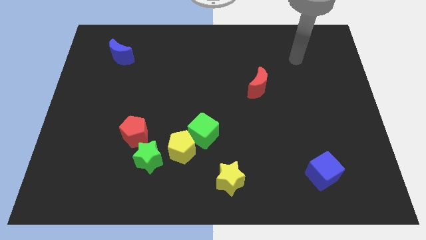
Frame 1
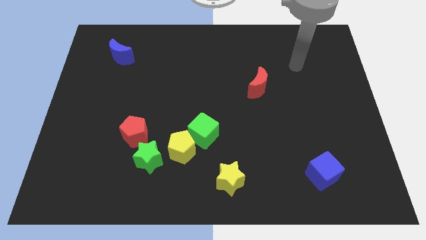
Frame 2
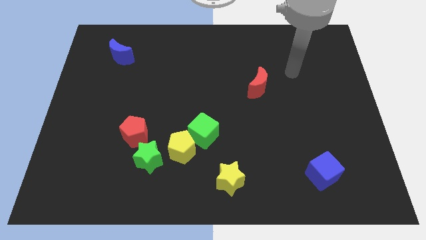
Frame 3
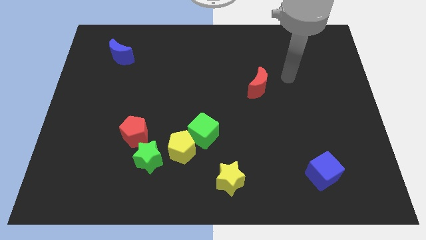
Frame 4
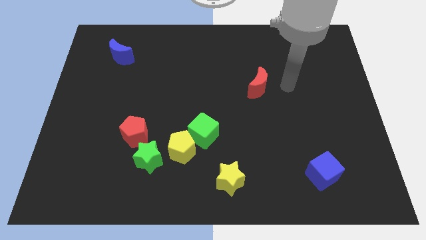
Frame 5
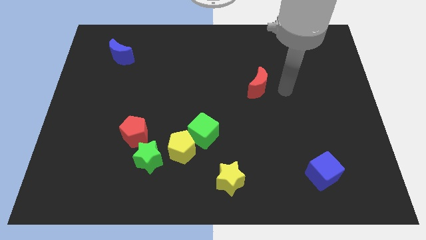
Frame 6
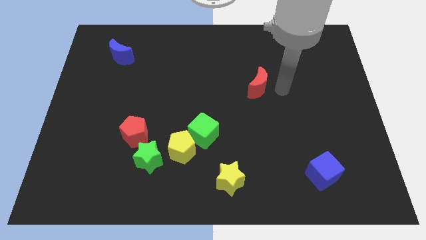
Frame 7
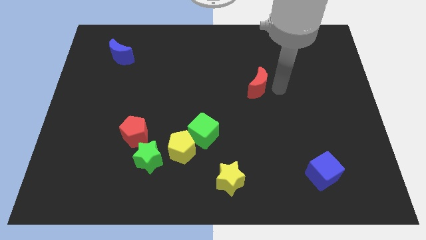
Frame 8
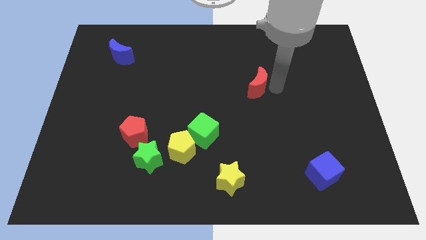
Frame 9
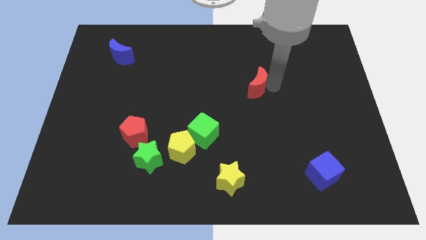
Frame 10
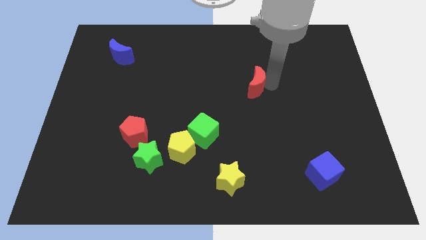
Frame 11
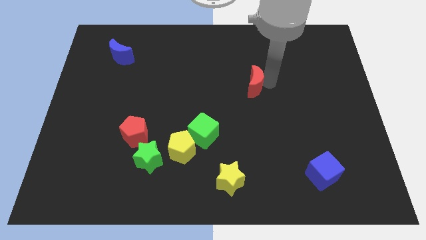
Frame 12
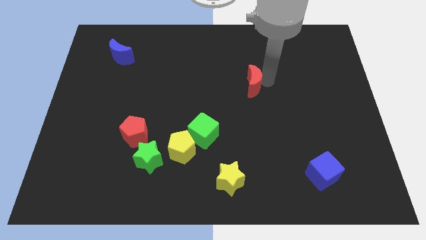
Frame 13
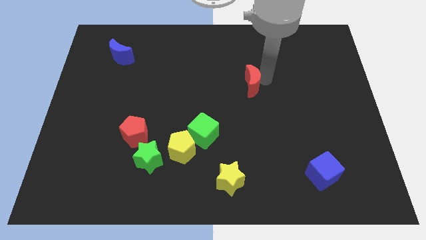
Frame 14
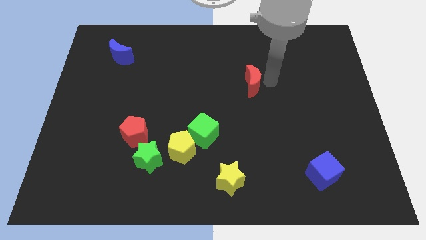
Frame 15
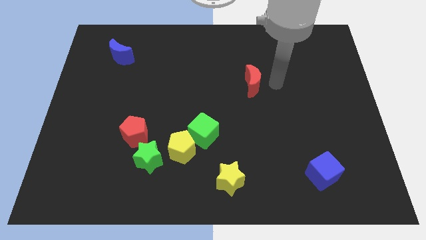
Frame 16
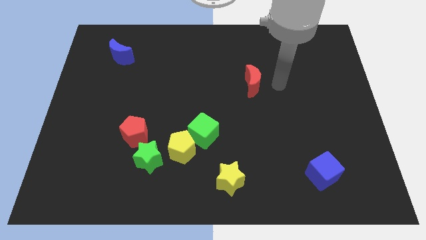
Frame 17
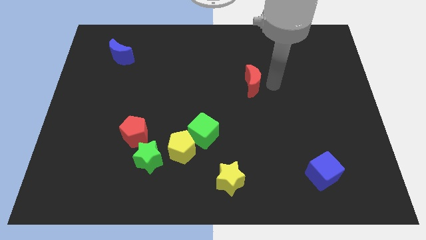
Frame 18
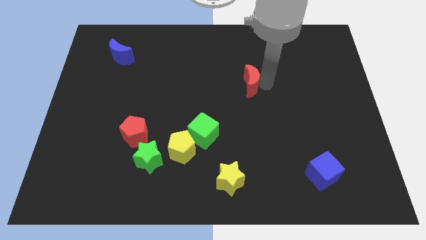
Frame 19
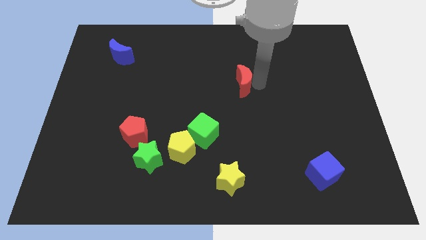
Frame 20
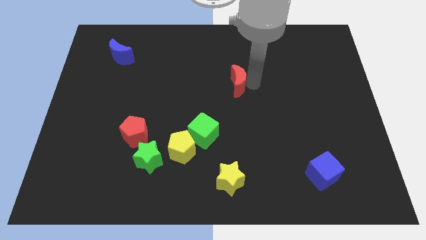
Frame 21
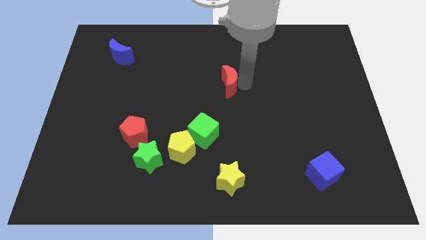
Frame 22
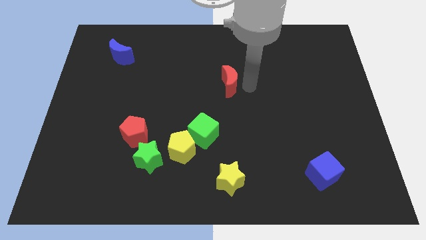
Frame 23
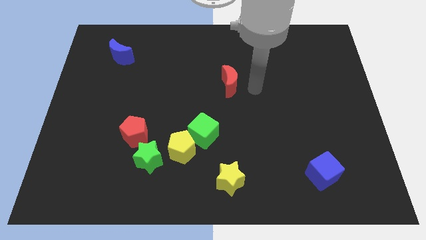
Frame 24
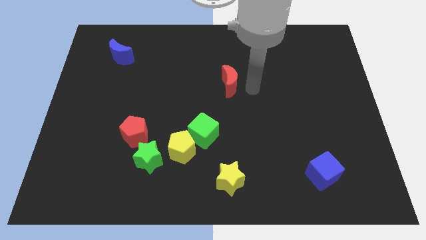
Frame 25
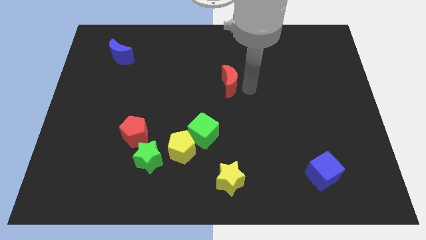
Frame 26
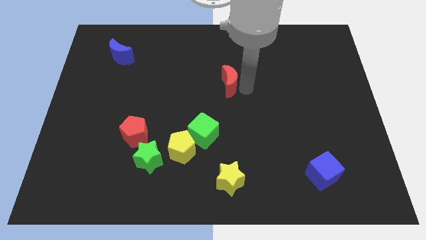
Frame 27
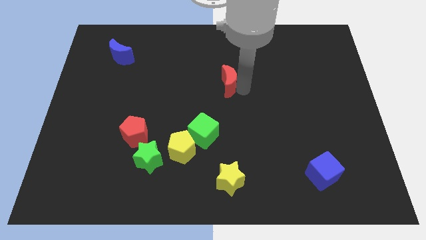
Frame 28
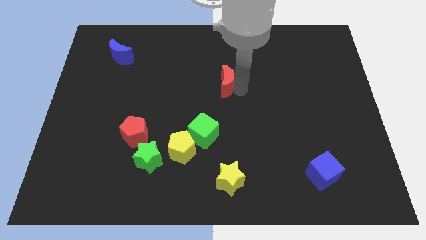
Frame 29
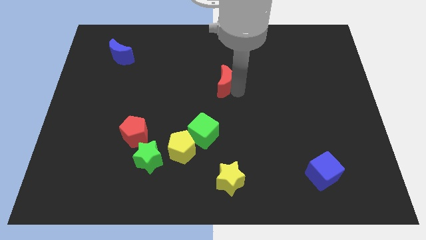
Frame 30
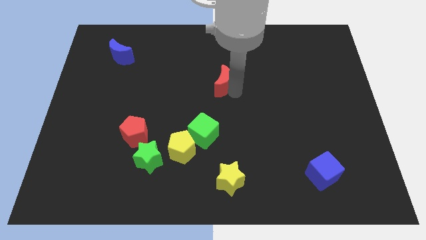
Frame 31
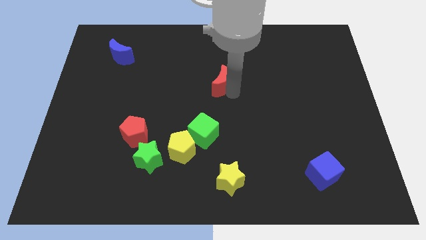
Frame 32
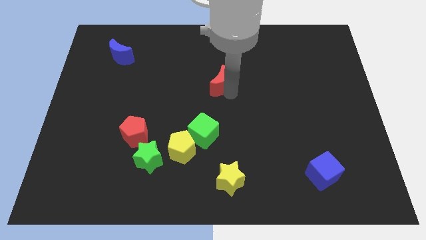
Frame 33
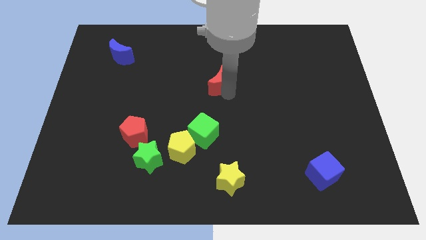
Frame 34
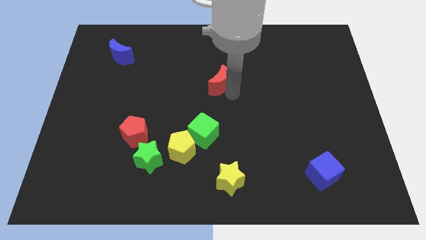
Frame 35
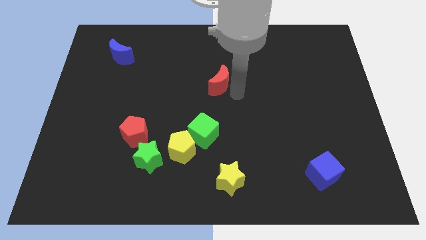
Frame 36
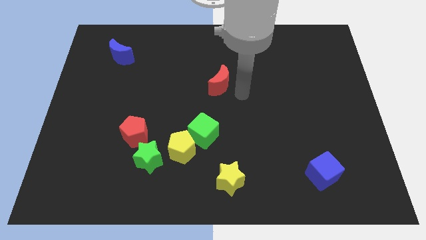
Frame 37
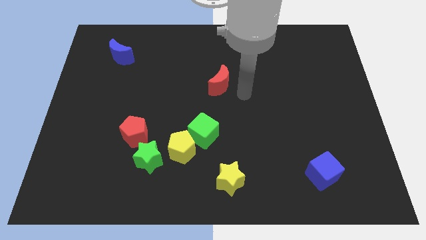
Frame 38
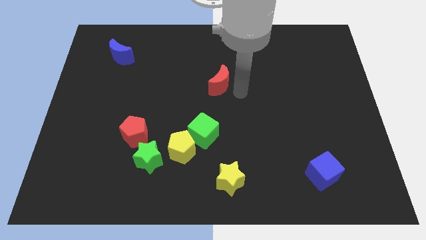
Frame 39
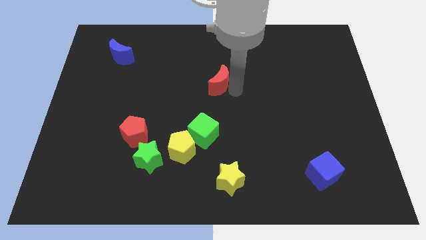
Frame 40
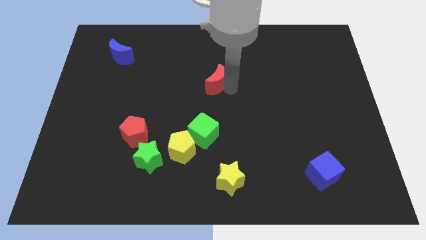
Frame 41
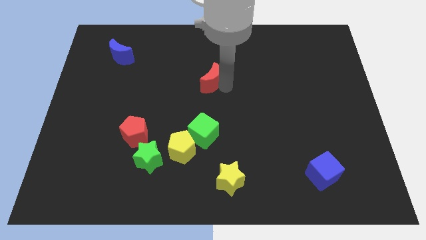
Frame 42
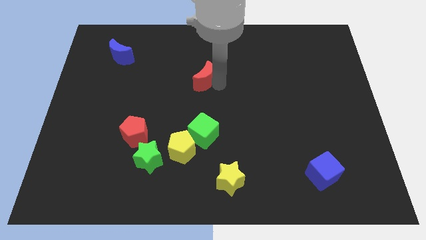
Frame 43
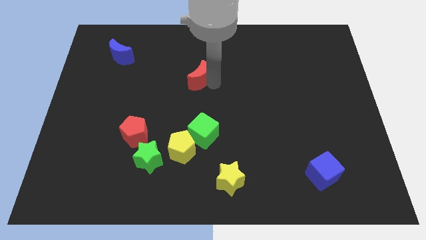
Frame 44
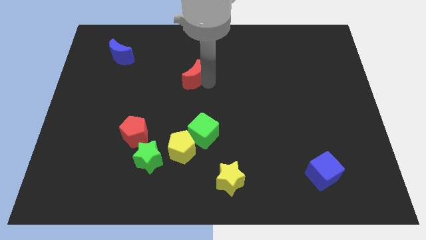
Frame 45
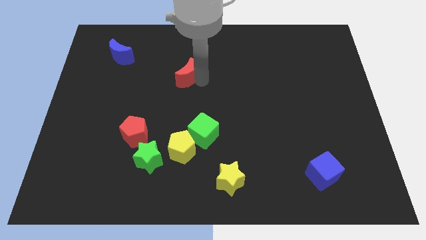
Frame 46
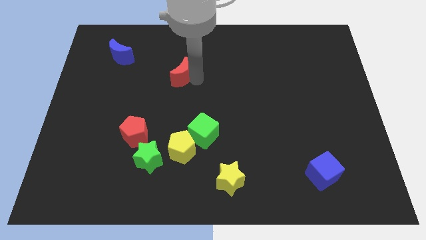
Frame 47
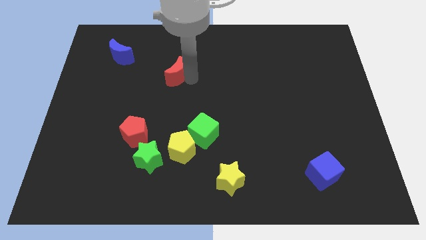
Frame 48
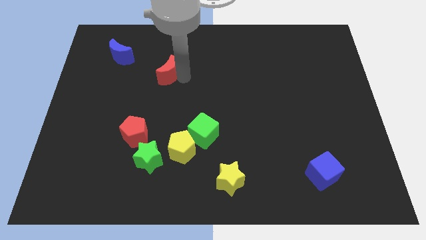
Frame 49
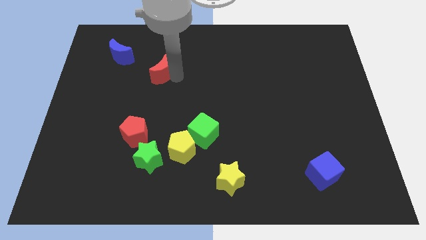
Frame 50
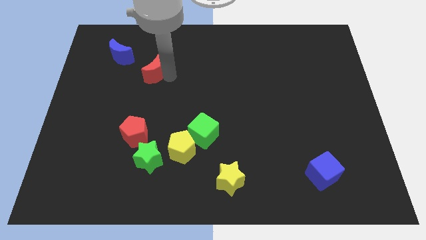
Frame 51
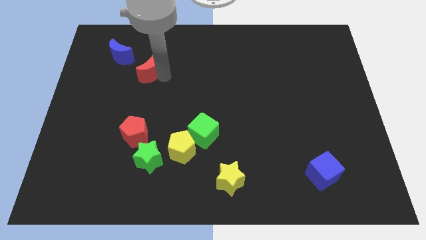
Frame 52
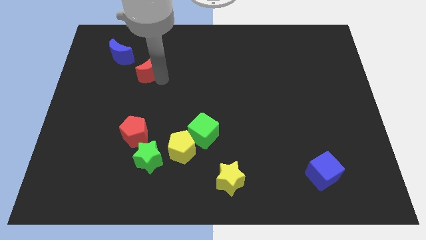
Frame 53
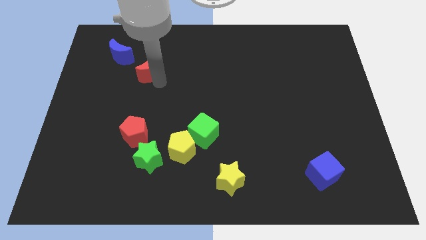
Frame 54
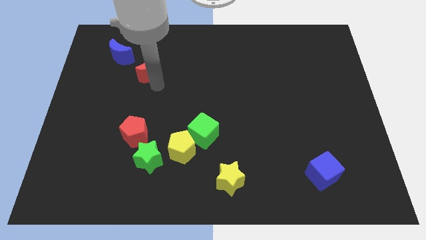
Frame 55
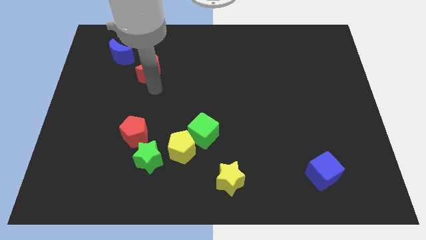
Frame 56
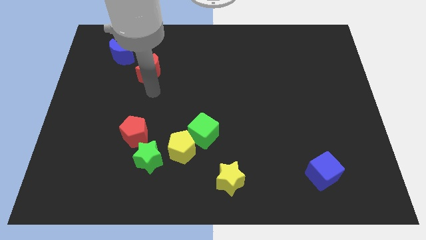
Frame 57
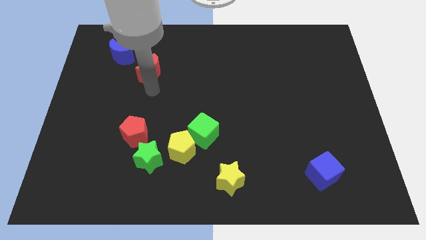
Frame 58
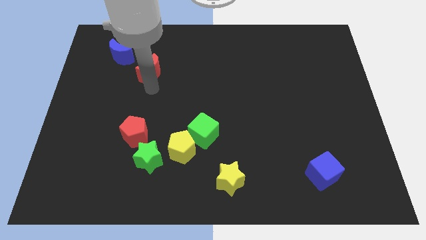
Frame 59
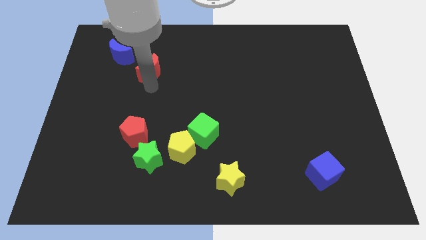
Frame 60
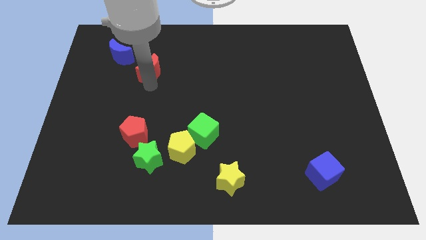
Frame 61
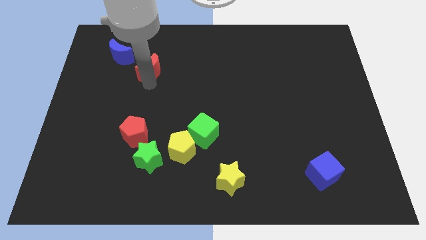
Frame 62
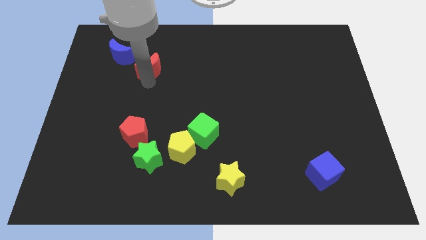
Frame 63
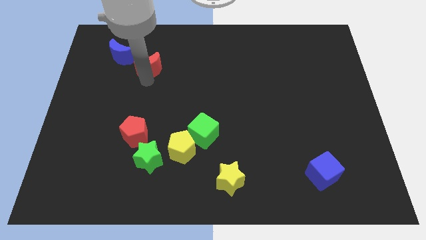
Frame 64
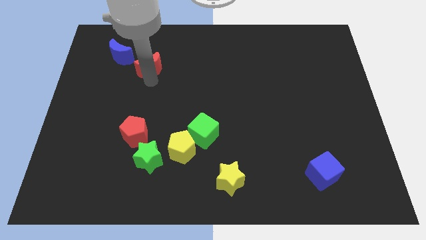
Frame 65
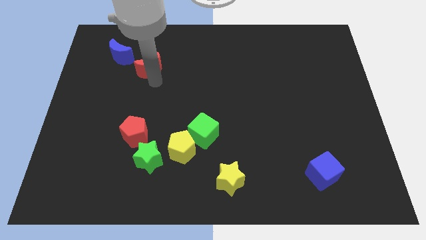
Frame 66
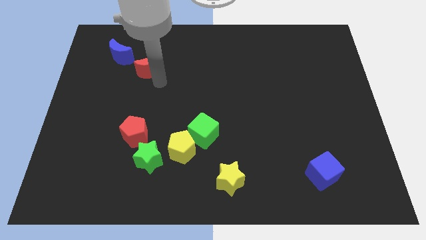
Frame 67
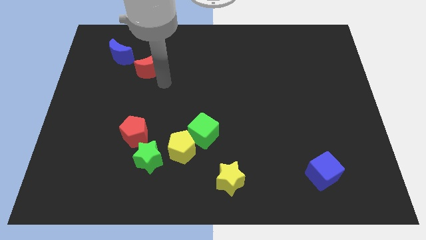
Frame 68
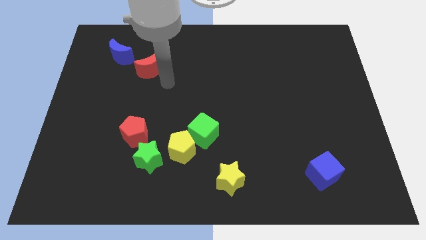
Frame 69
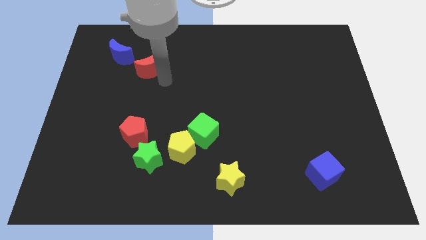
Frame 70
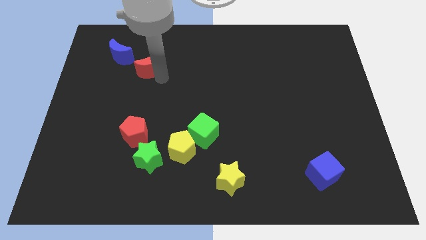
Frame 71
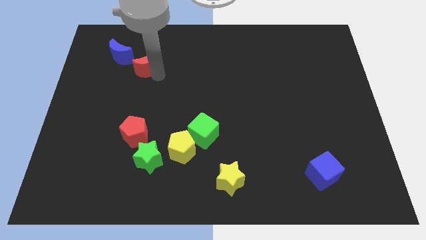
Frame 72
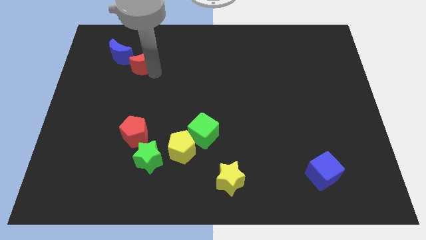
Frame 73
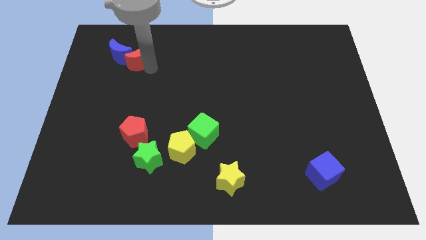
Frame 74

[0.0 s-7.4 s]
move the red moon close to the blue moon
